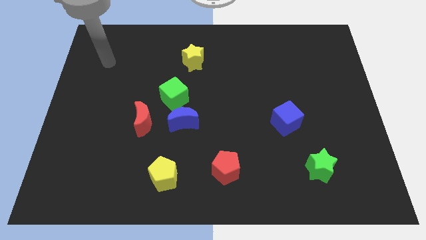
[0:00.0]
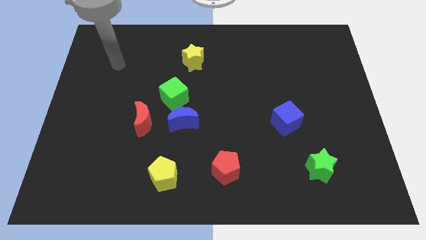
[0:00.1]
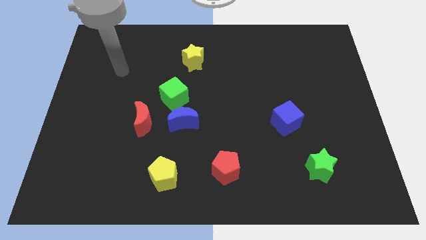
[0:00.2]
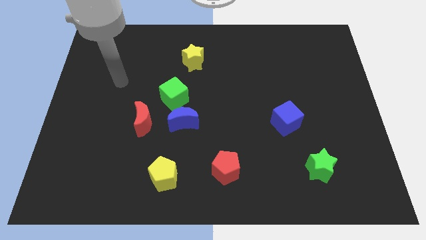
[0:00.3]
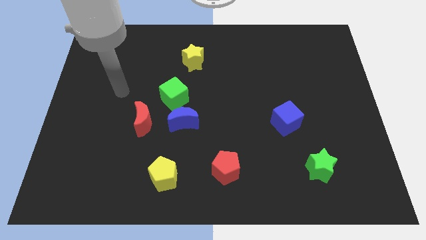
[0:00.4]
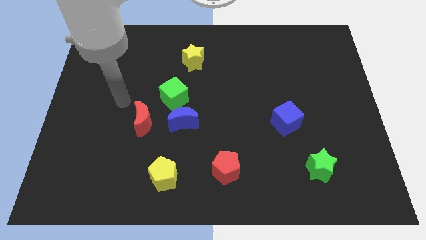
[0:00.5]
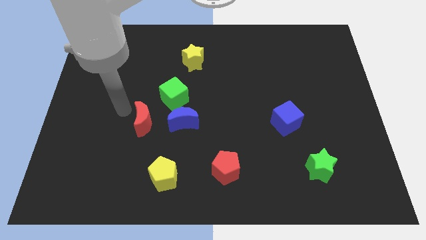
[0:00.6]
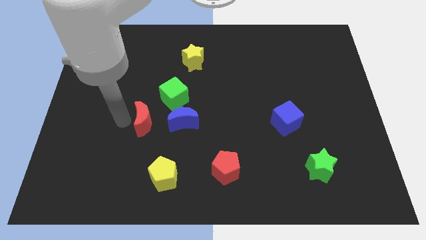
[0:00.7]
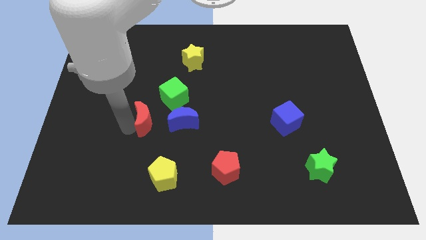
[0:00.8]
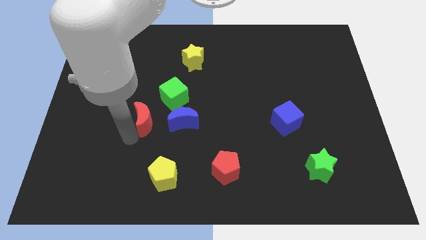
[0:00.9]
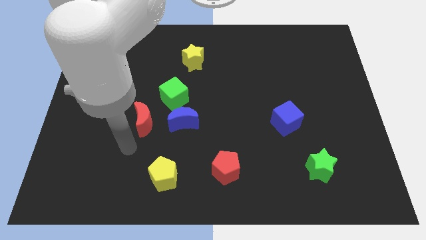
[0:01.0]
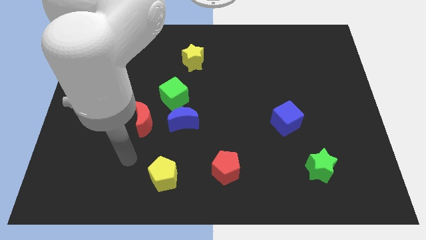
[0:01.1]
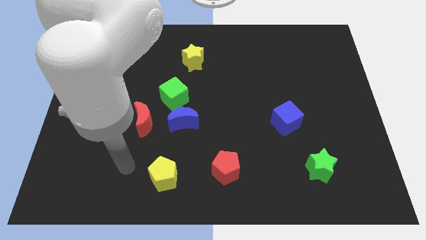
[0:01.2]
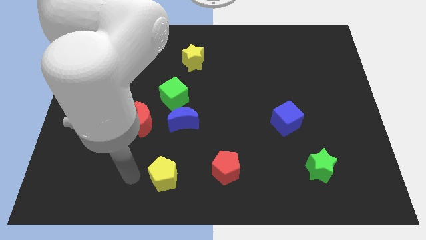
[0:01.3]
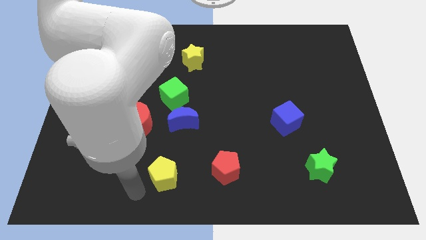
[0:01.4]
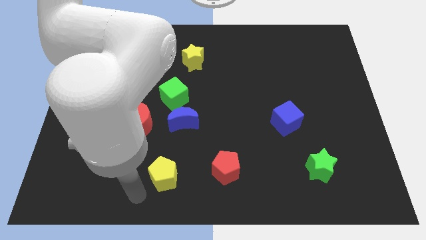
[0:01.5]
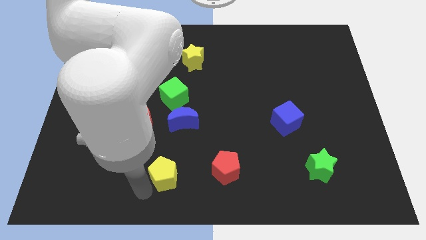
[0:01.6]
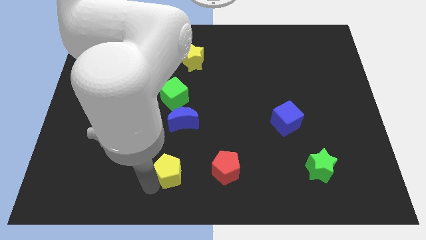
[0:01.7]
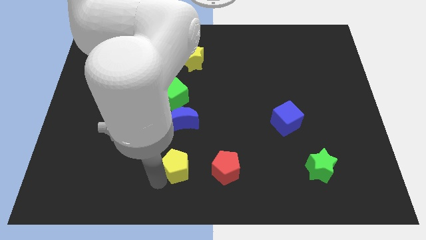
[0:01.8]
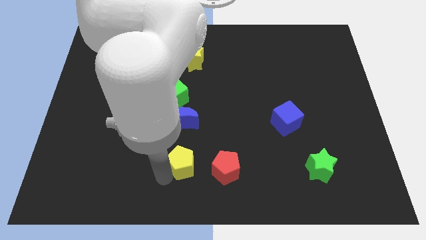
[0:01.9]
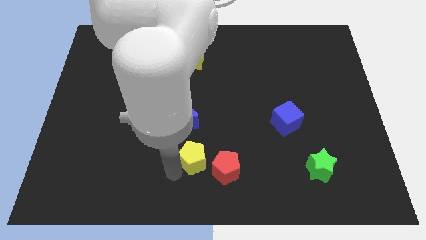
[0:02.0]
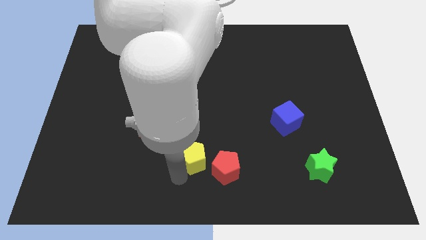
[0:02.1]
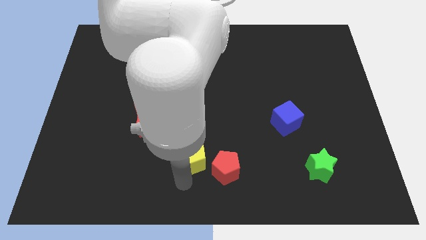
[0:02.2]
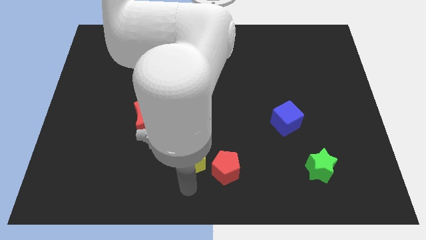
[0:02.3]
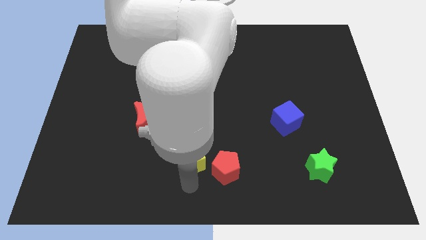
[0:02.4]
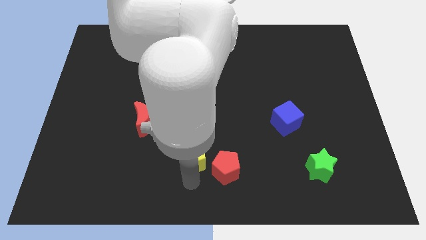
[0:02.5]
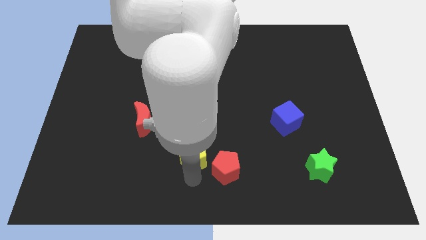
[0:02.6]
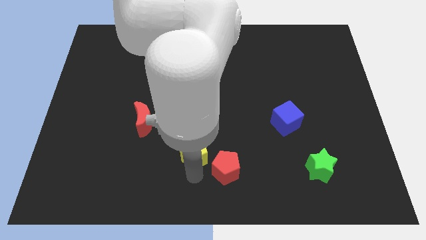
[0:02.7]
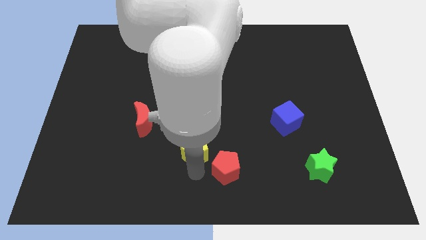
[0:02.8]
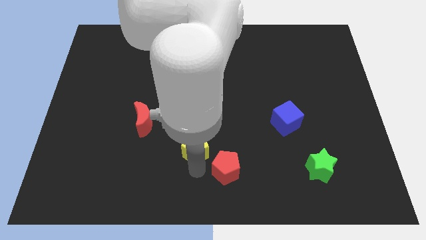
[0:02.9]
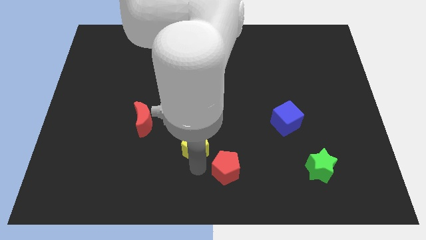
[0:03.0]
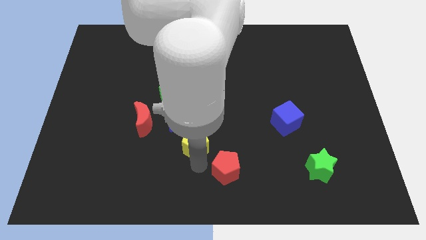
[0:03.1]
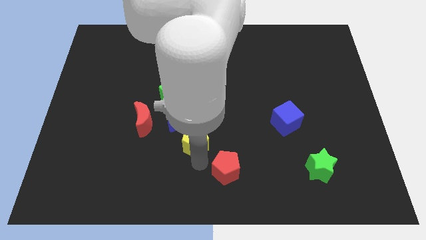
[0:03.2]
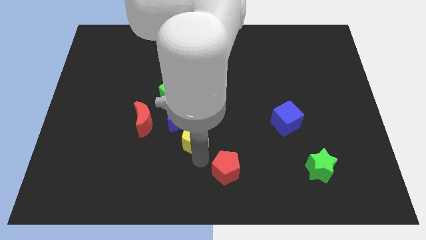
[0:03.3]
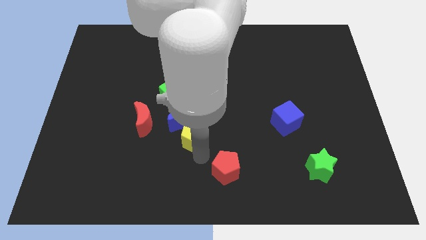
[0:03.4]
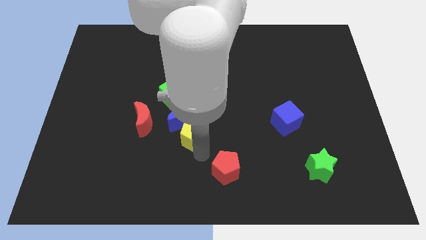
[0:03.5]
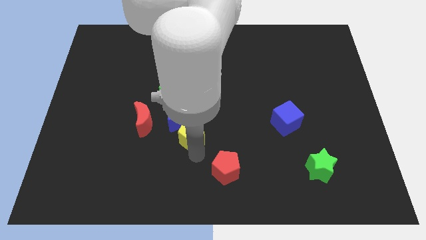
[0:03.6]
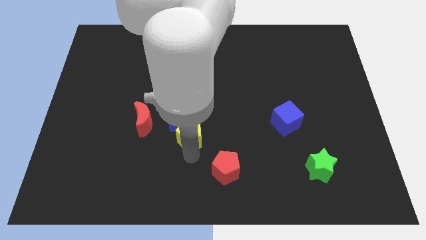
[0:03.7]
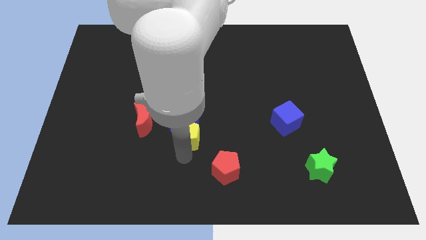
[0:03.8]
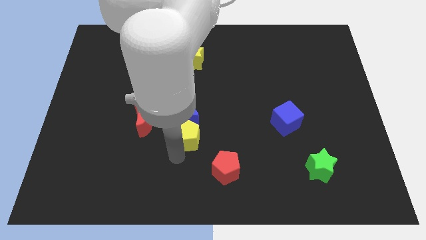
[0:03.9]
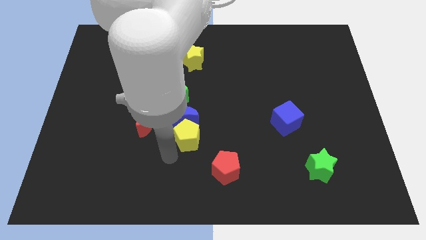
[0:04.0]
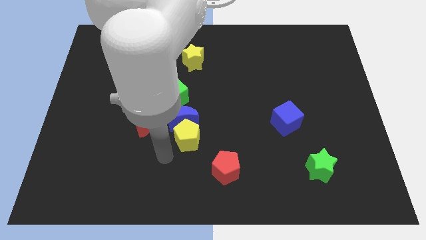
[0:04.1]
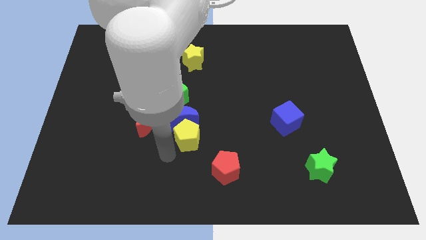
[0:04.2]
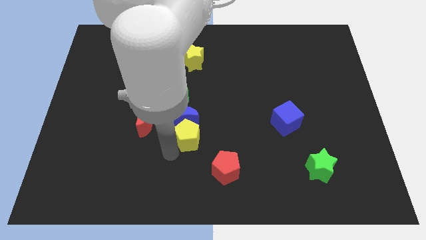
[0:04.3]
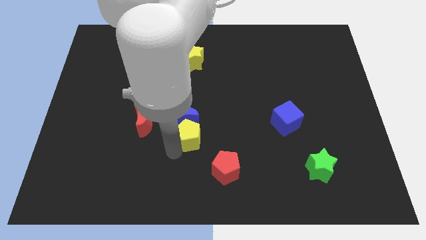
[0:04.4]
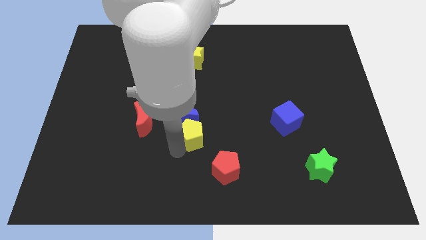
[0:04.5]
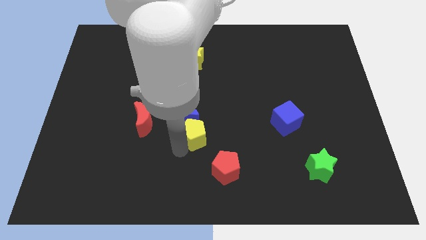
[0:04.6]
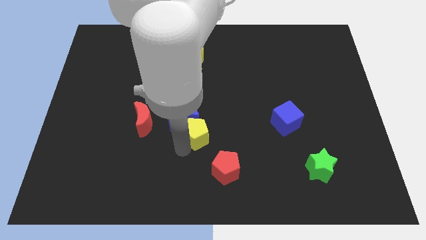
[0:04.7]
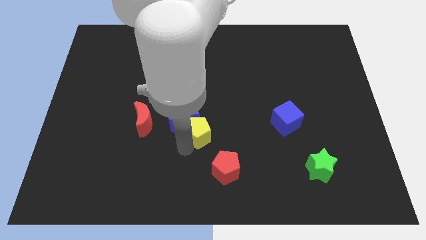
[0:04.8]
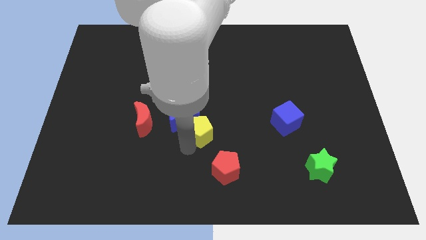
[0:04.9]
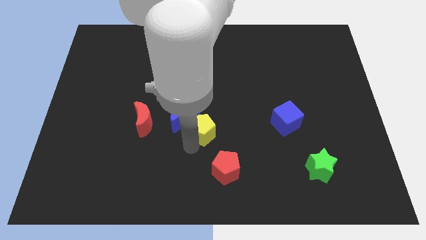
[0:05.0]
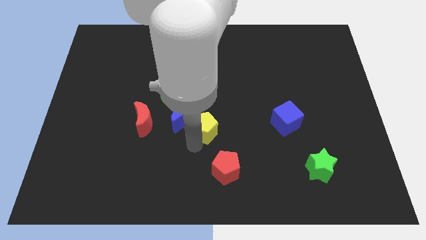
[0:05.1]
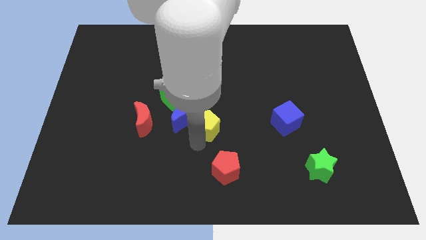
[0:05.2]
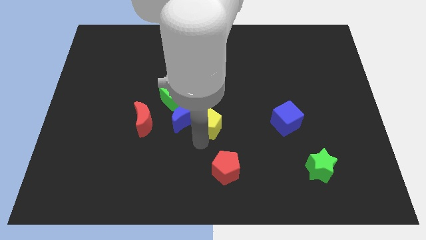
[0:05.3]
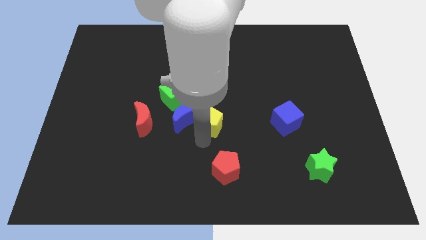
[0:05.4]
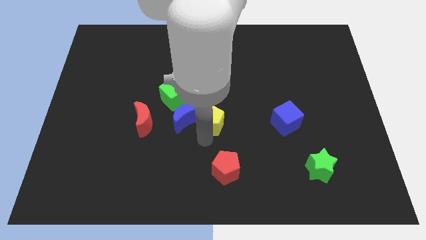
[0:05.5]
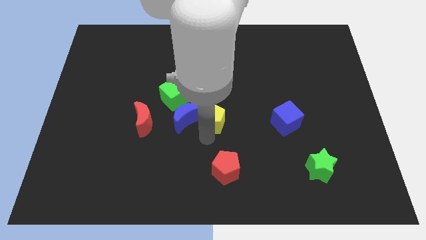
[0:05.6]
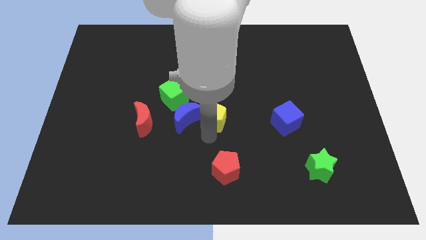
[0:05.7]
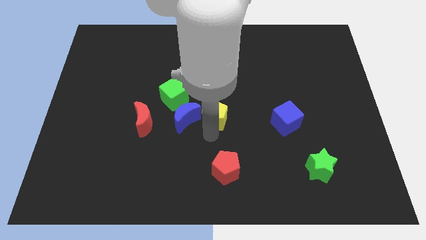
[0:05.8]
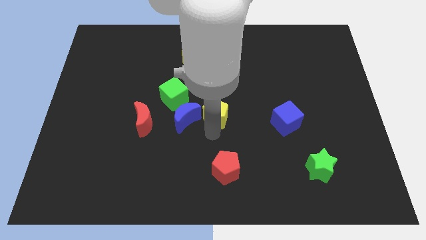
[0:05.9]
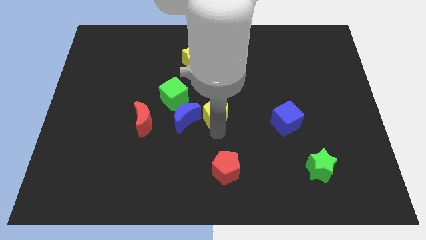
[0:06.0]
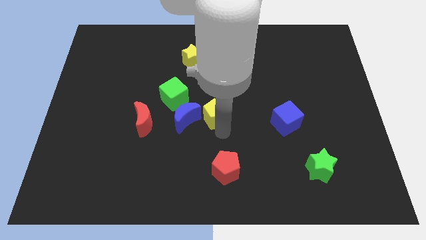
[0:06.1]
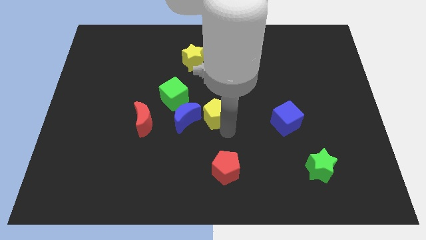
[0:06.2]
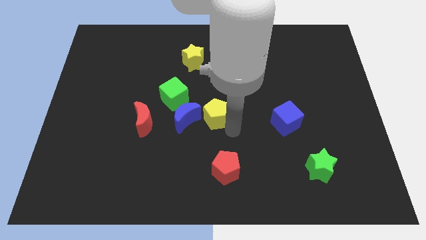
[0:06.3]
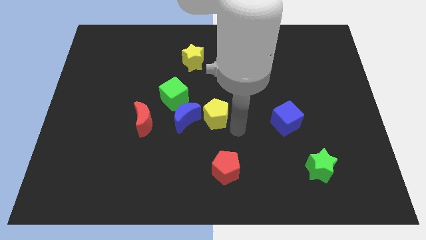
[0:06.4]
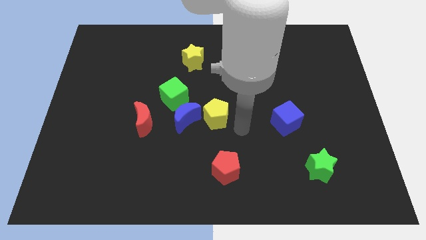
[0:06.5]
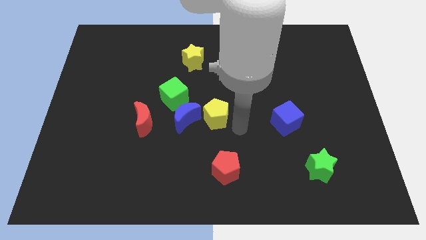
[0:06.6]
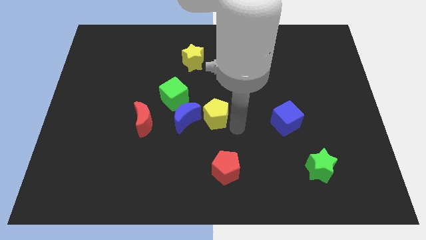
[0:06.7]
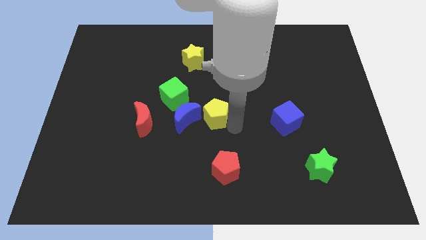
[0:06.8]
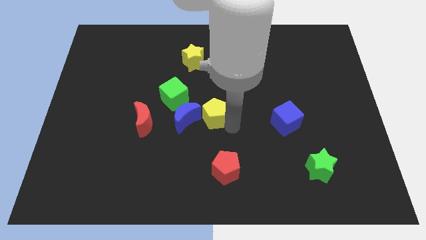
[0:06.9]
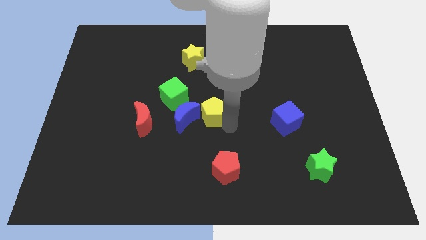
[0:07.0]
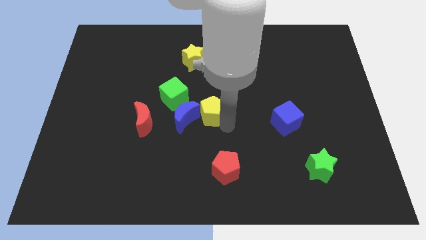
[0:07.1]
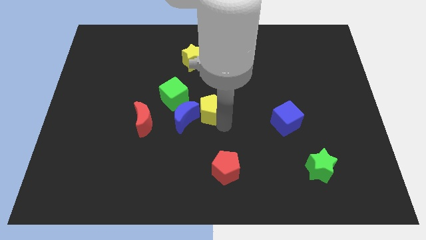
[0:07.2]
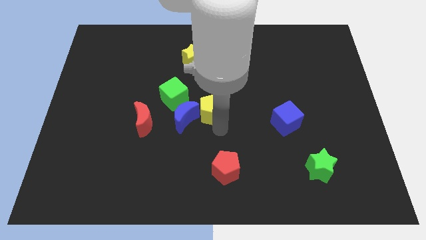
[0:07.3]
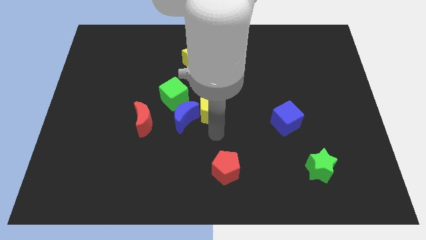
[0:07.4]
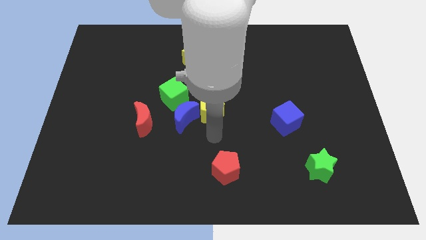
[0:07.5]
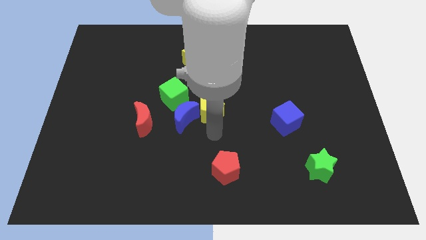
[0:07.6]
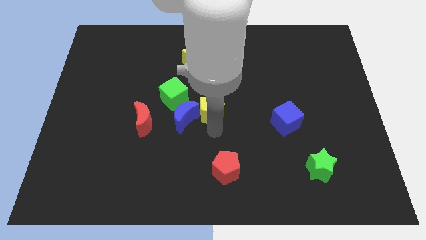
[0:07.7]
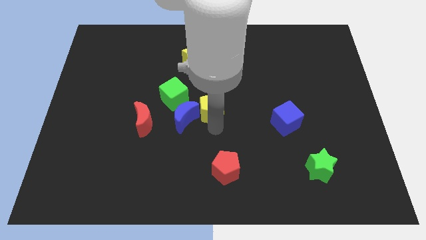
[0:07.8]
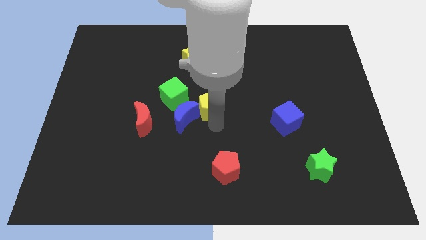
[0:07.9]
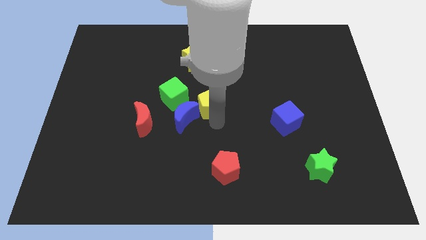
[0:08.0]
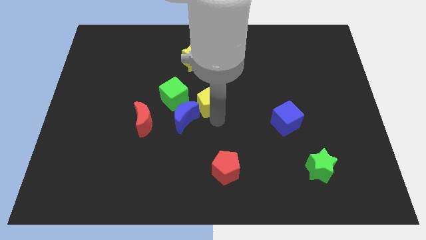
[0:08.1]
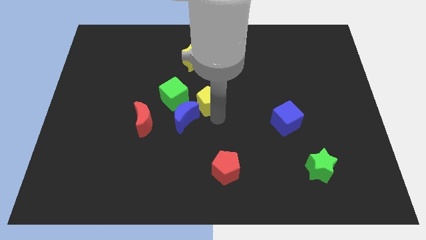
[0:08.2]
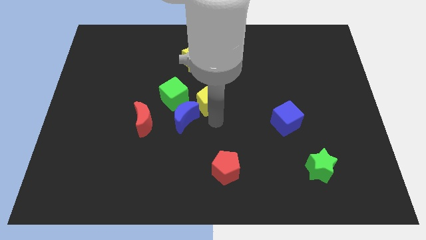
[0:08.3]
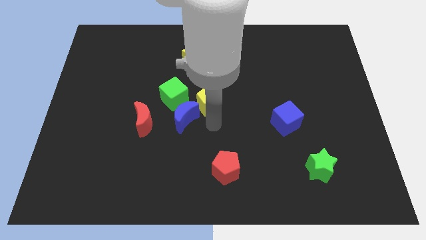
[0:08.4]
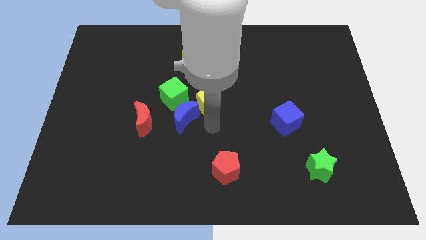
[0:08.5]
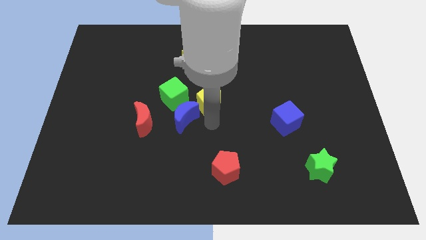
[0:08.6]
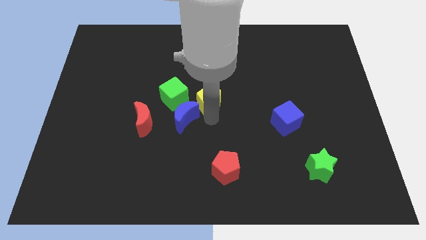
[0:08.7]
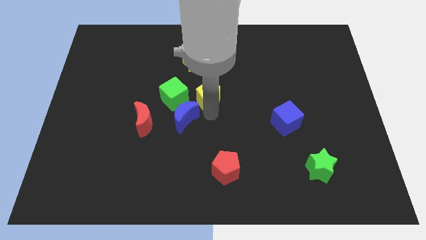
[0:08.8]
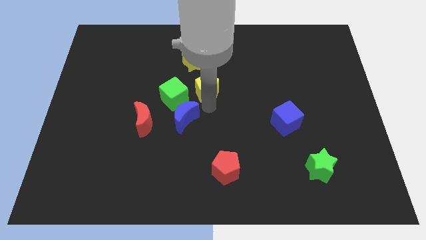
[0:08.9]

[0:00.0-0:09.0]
push the yellow pentagon to the bottom right side of the yellow star
